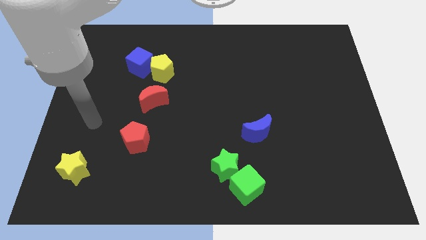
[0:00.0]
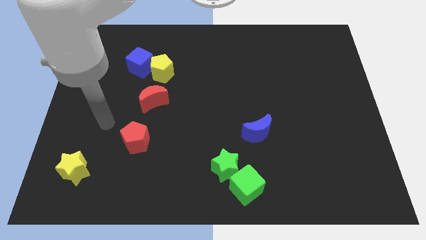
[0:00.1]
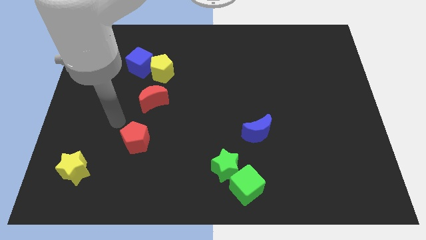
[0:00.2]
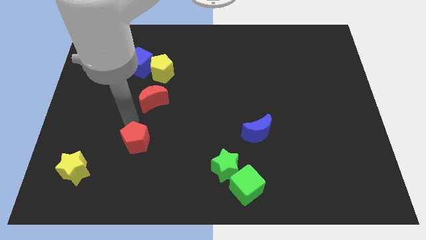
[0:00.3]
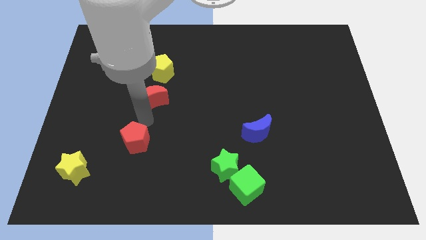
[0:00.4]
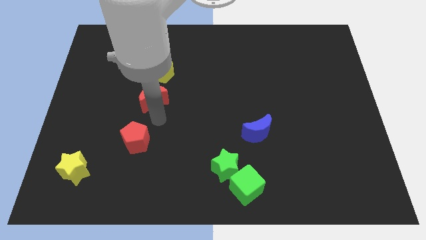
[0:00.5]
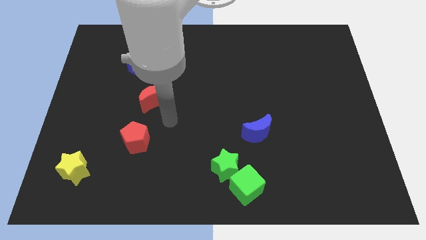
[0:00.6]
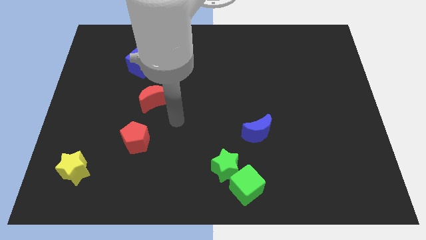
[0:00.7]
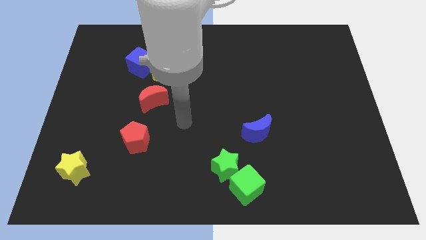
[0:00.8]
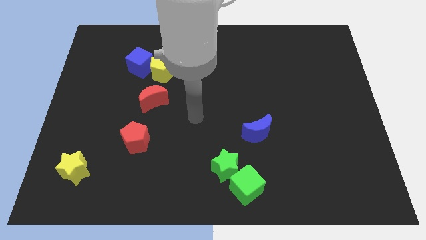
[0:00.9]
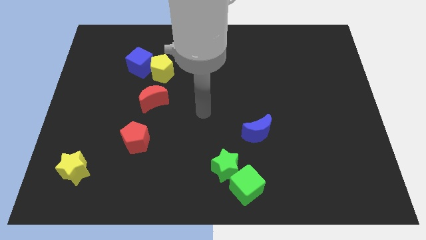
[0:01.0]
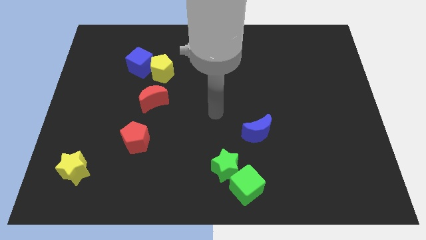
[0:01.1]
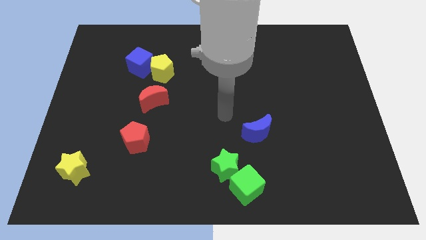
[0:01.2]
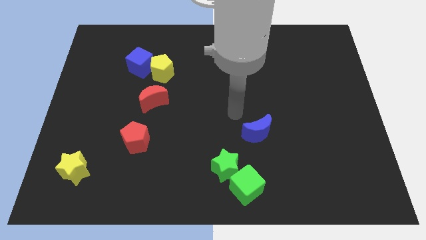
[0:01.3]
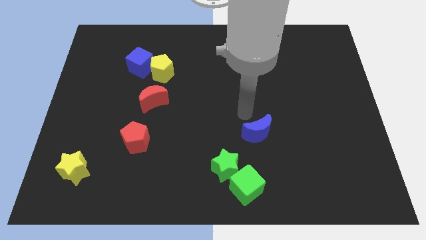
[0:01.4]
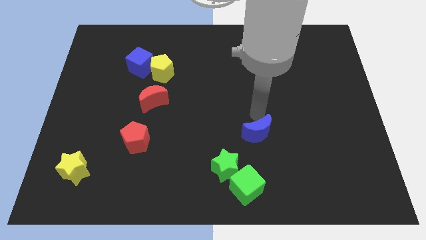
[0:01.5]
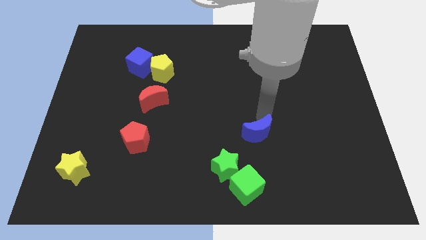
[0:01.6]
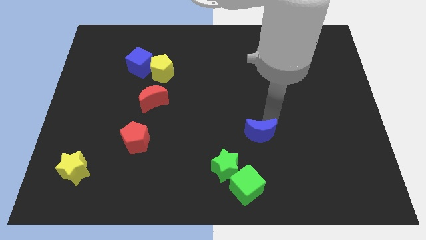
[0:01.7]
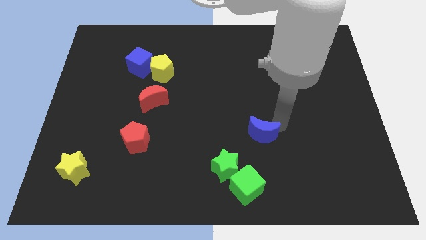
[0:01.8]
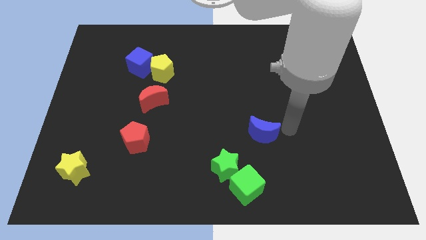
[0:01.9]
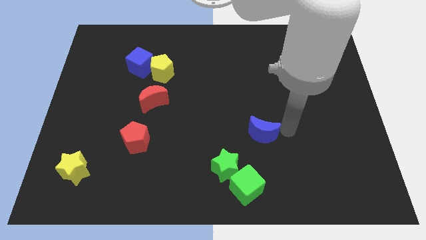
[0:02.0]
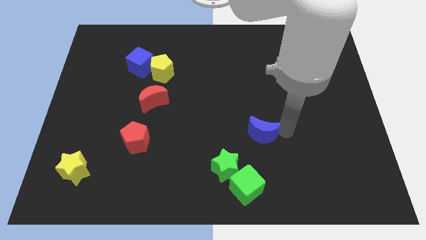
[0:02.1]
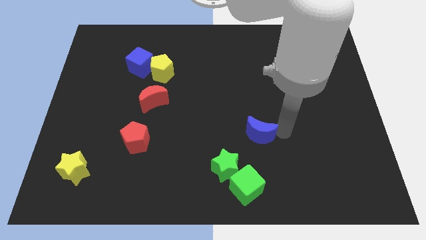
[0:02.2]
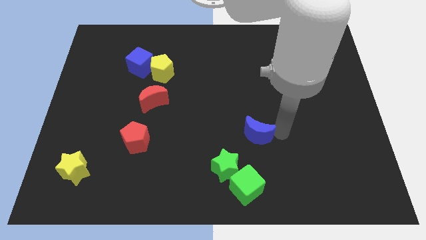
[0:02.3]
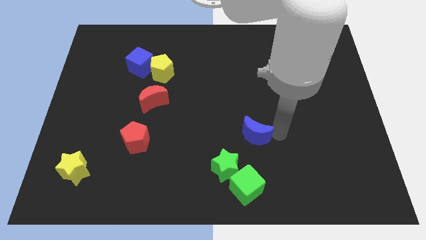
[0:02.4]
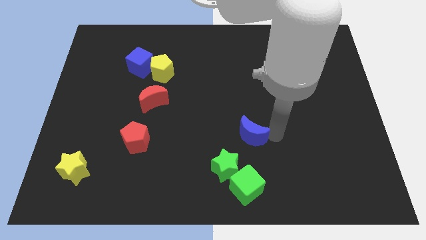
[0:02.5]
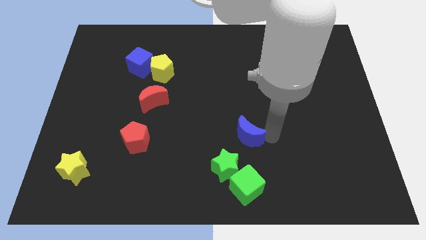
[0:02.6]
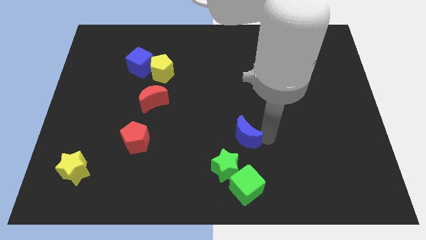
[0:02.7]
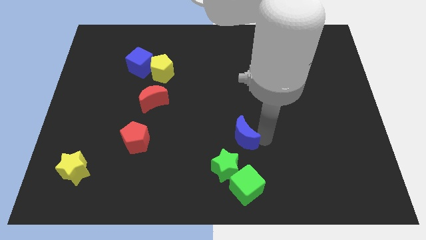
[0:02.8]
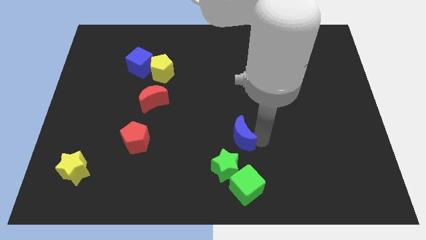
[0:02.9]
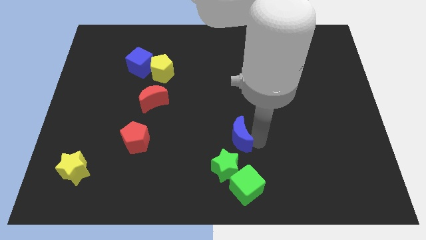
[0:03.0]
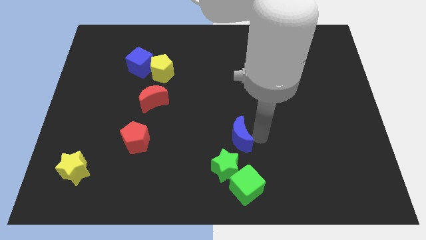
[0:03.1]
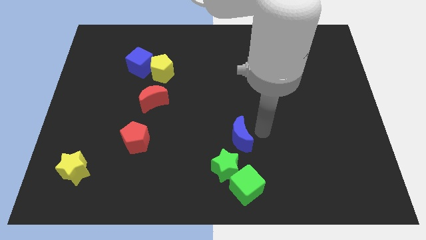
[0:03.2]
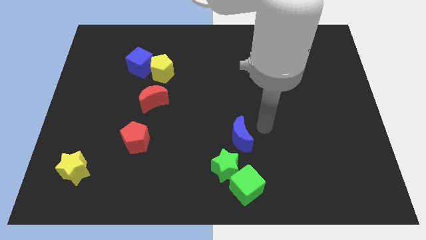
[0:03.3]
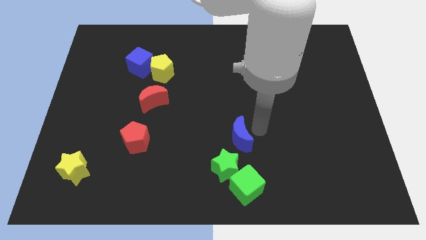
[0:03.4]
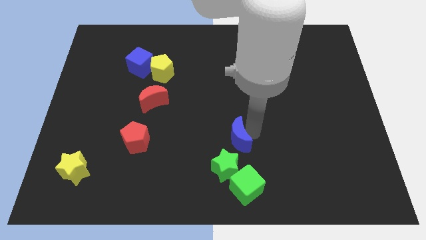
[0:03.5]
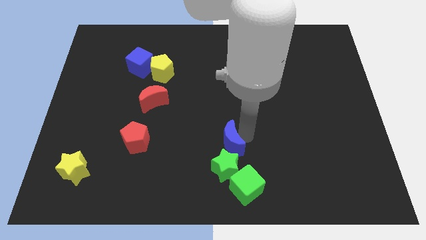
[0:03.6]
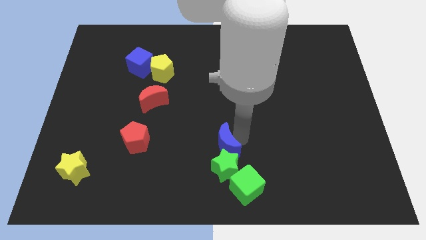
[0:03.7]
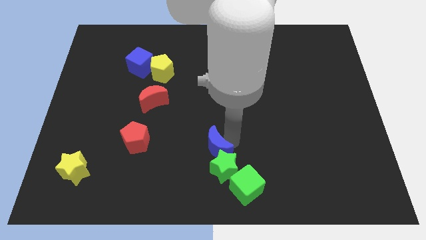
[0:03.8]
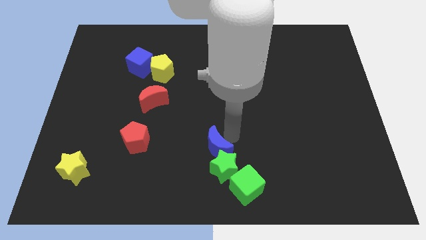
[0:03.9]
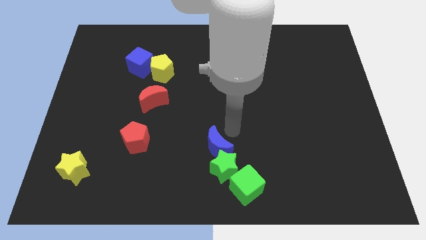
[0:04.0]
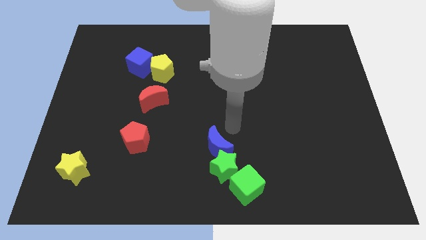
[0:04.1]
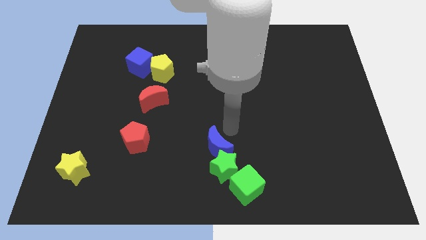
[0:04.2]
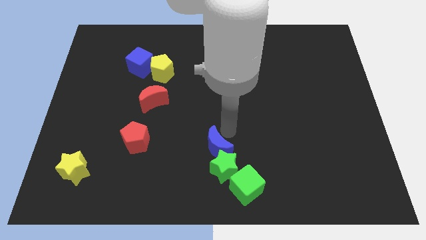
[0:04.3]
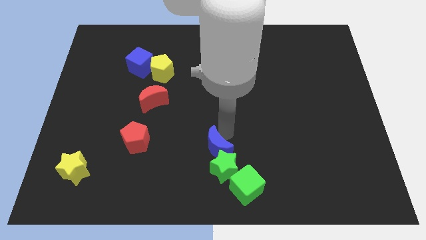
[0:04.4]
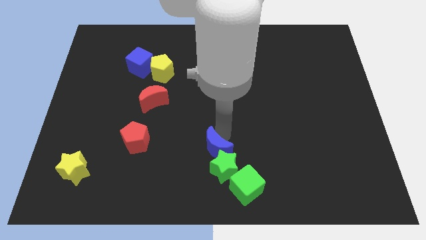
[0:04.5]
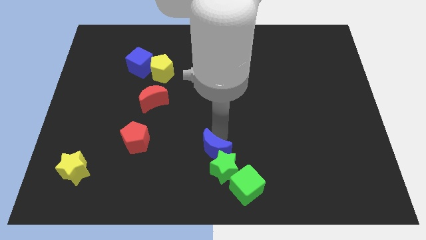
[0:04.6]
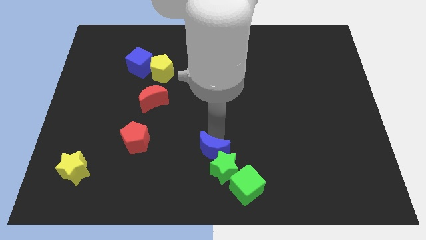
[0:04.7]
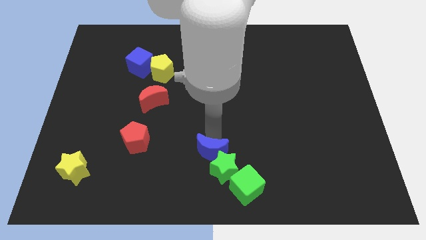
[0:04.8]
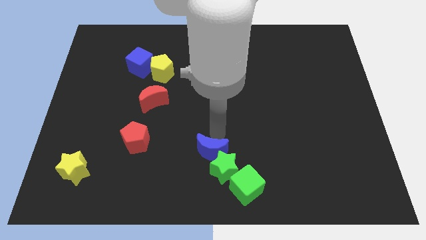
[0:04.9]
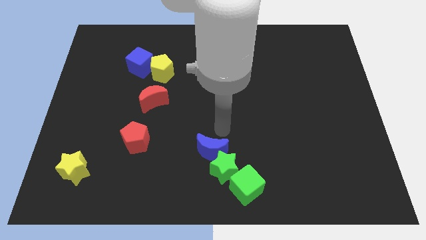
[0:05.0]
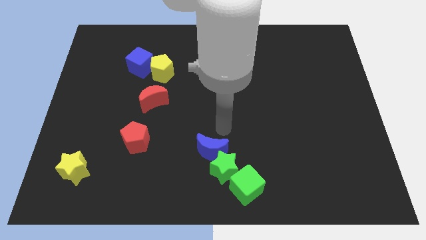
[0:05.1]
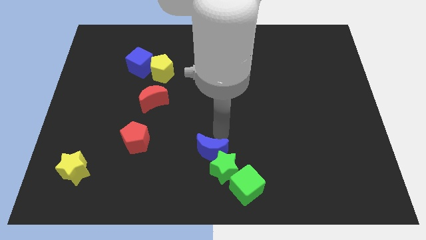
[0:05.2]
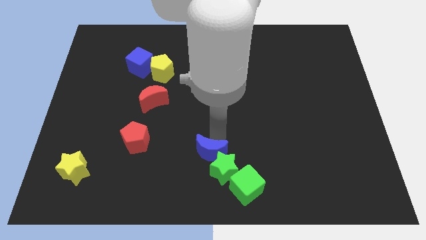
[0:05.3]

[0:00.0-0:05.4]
push the blue moon to the bottom side
